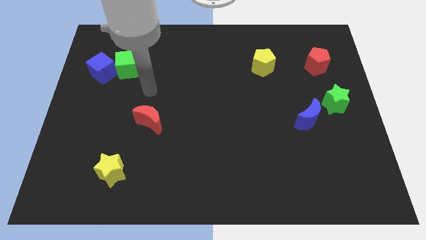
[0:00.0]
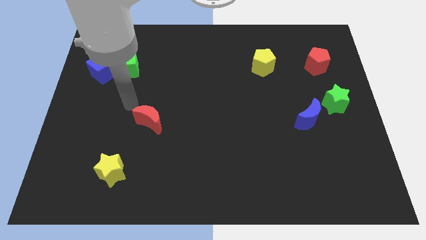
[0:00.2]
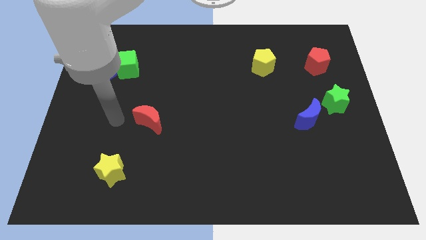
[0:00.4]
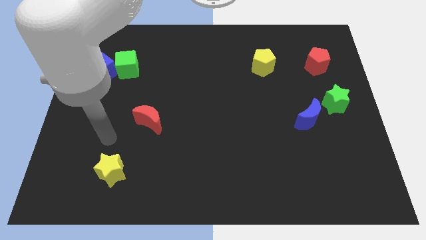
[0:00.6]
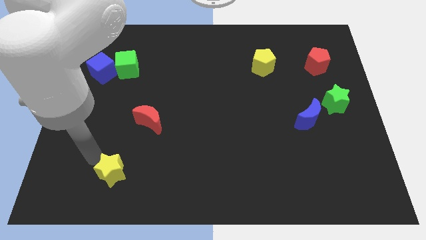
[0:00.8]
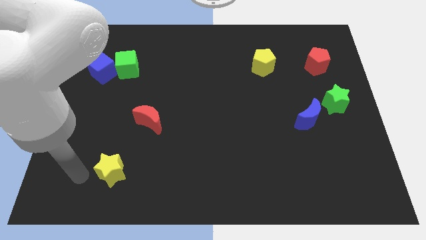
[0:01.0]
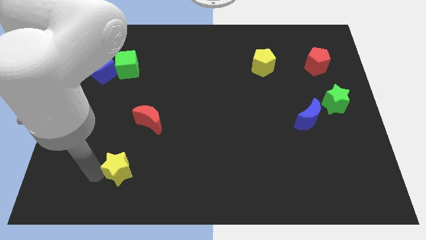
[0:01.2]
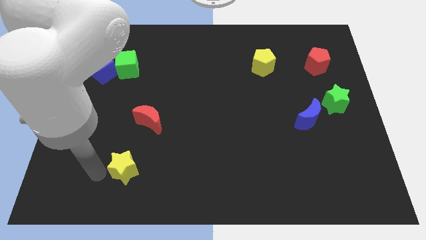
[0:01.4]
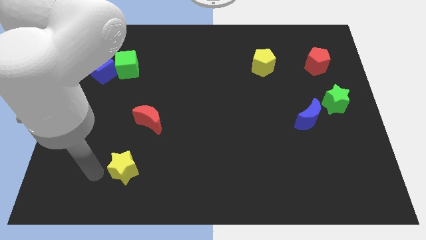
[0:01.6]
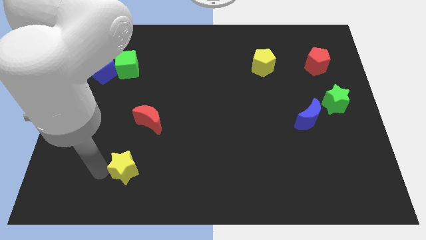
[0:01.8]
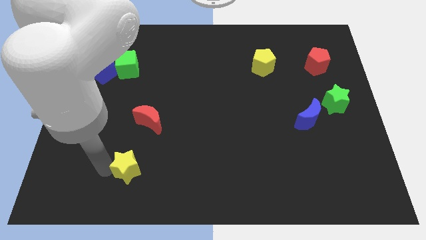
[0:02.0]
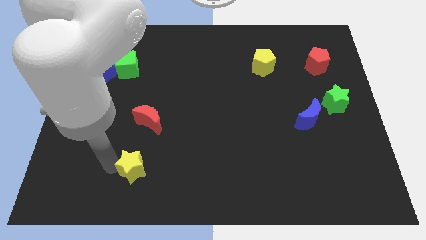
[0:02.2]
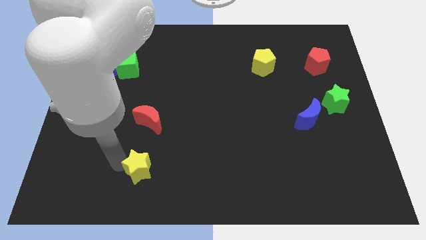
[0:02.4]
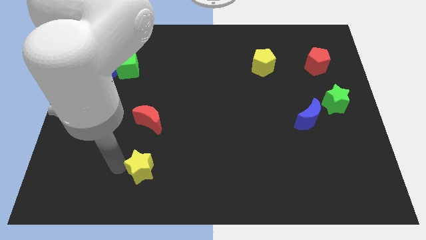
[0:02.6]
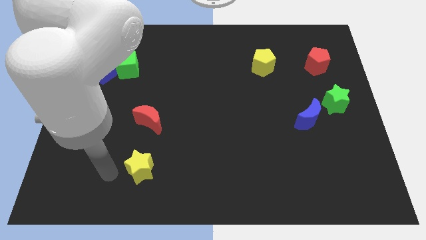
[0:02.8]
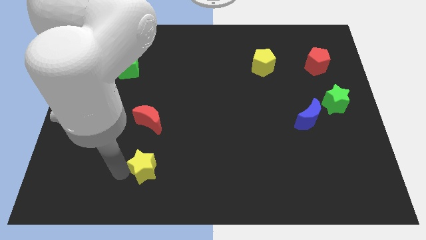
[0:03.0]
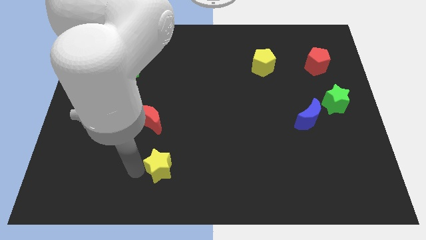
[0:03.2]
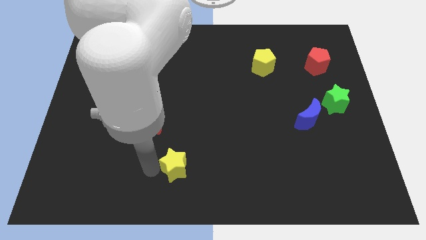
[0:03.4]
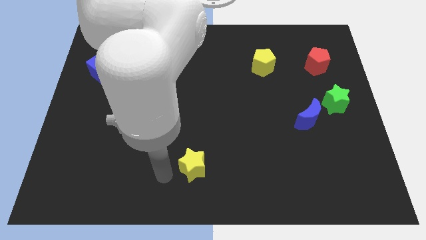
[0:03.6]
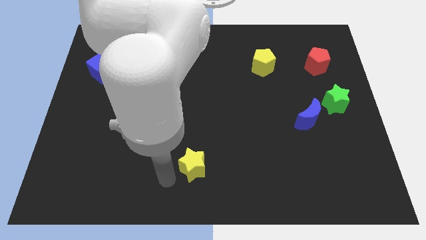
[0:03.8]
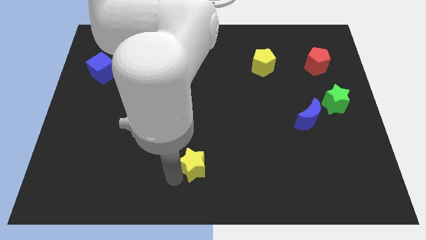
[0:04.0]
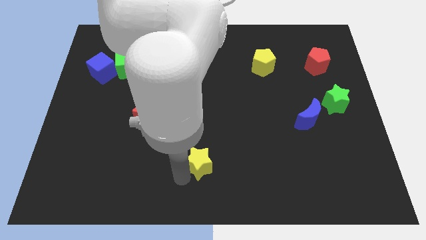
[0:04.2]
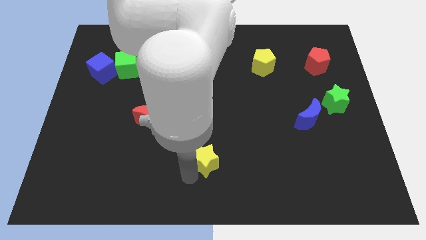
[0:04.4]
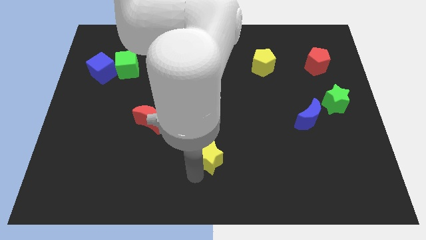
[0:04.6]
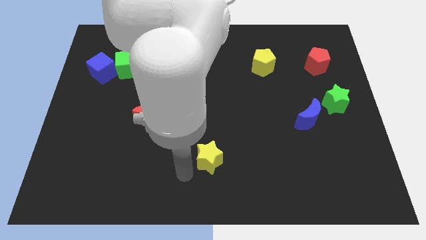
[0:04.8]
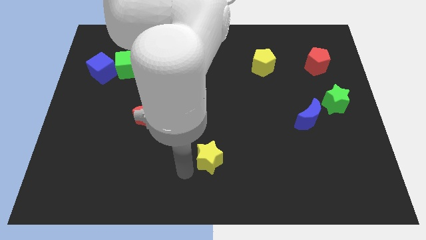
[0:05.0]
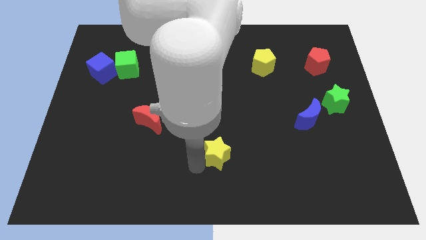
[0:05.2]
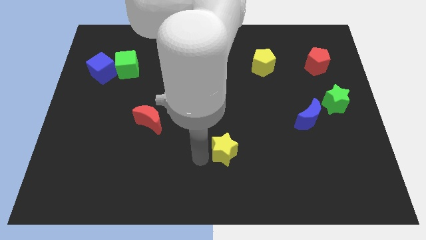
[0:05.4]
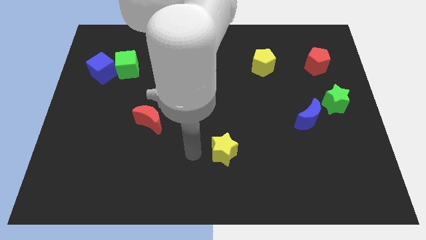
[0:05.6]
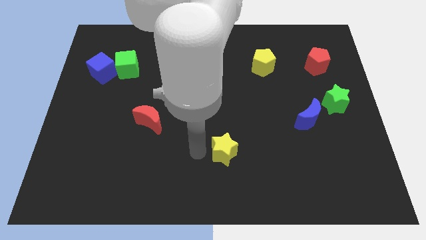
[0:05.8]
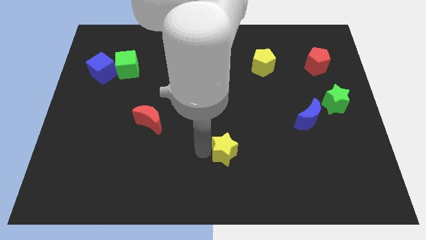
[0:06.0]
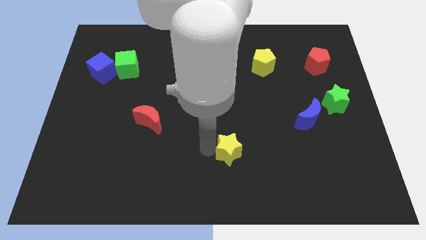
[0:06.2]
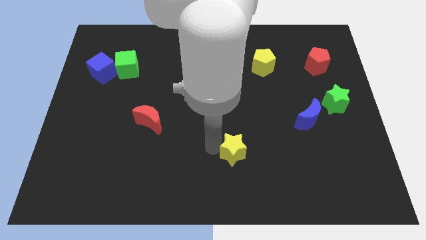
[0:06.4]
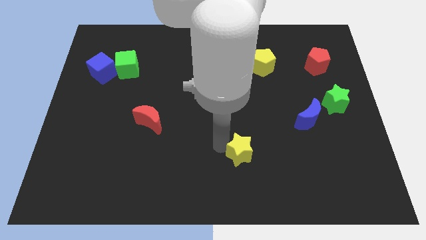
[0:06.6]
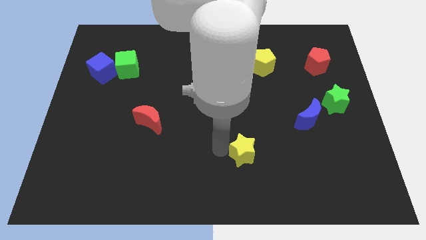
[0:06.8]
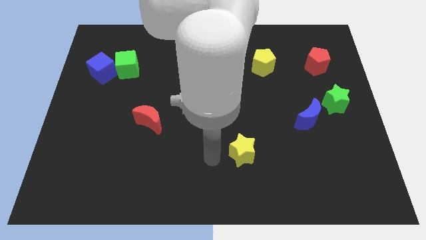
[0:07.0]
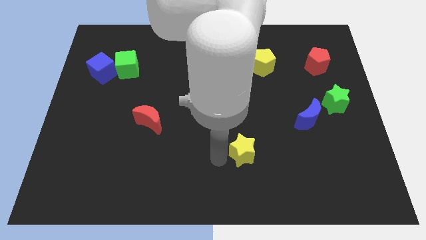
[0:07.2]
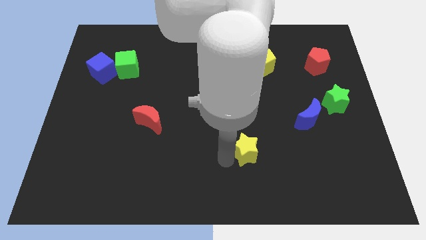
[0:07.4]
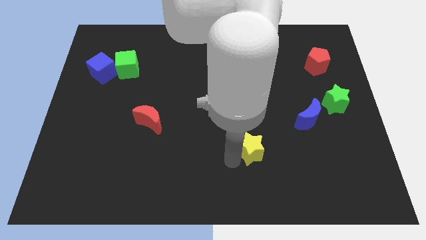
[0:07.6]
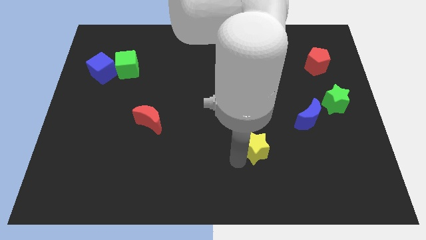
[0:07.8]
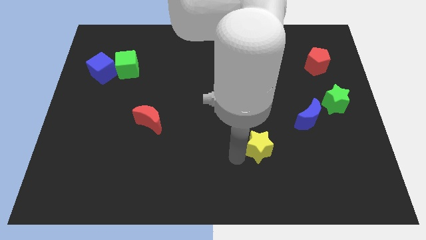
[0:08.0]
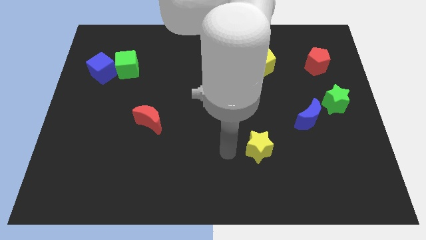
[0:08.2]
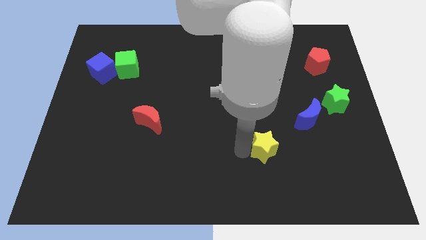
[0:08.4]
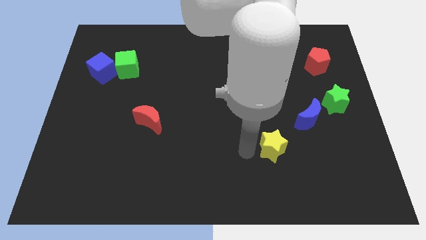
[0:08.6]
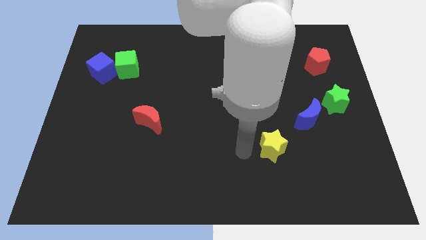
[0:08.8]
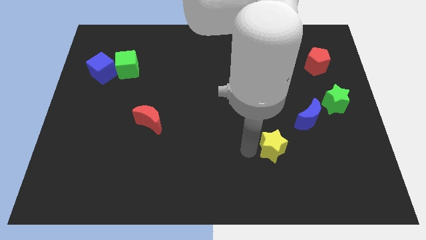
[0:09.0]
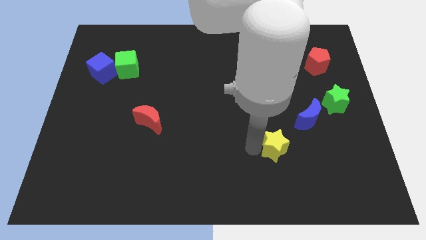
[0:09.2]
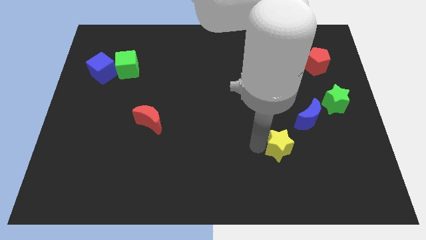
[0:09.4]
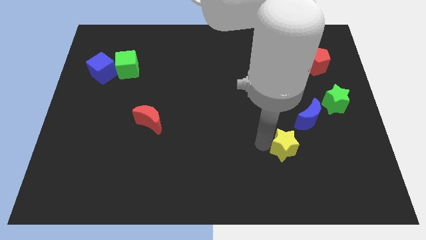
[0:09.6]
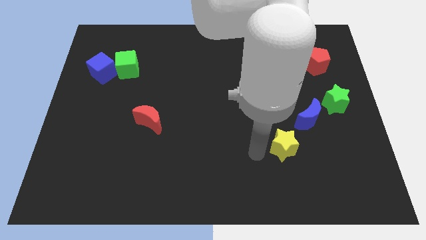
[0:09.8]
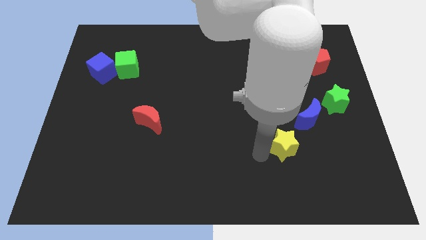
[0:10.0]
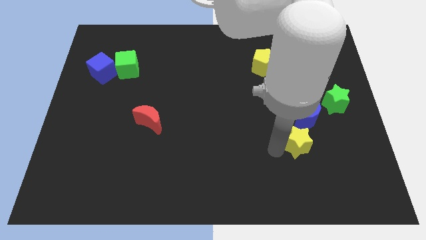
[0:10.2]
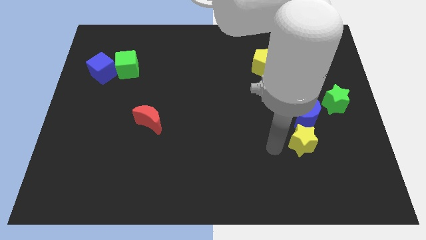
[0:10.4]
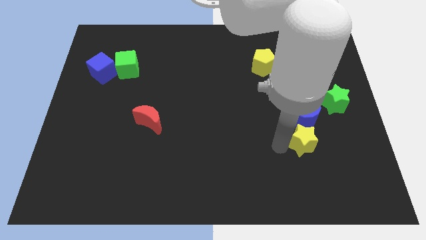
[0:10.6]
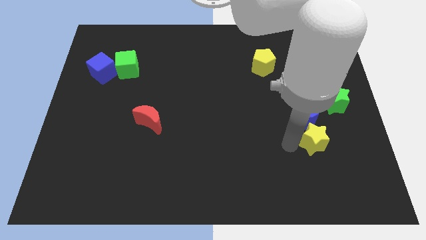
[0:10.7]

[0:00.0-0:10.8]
put the yellow star diagonally down and to the right of the blue moon

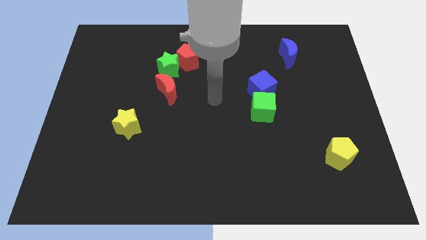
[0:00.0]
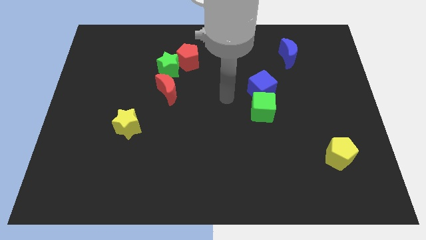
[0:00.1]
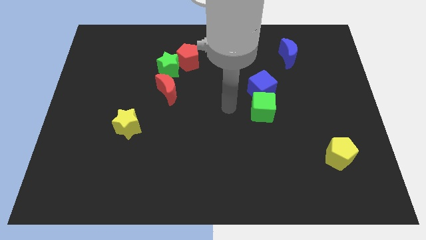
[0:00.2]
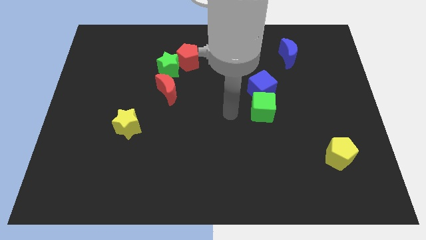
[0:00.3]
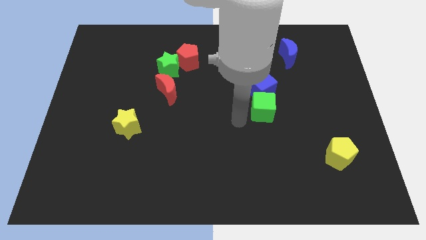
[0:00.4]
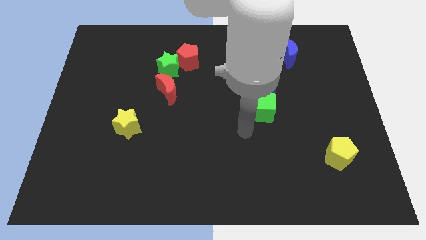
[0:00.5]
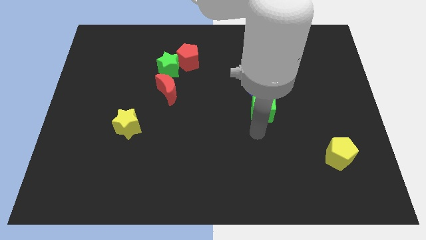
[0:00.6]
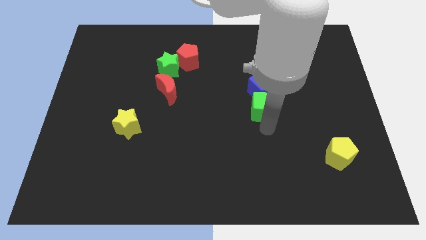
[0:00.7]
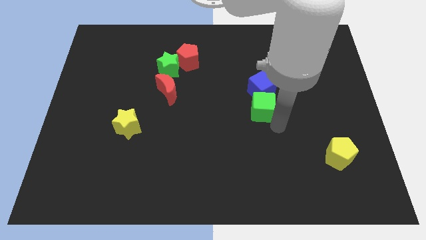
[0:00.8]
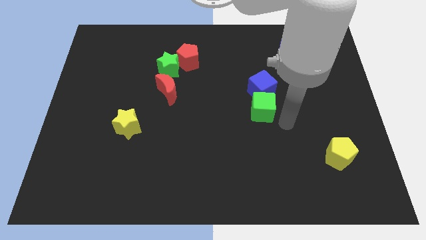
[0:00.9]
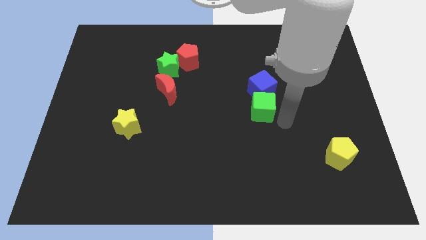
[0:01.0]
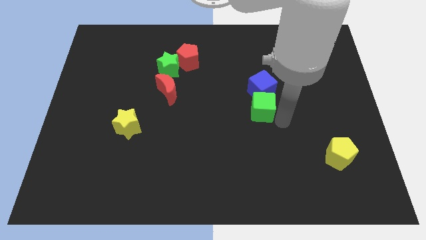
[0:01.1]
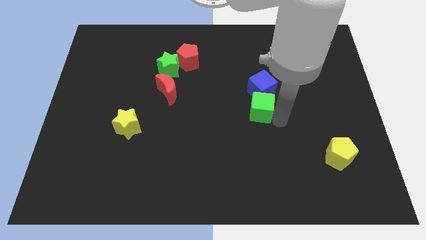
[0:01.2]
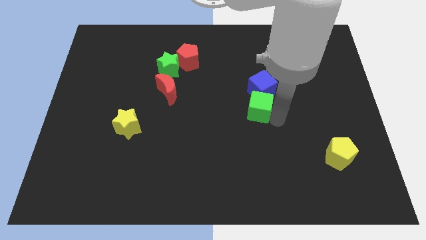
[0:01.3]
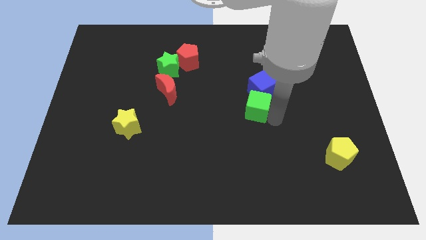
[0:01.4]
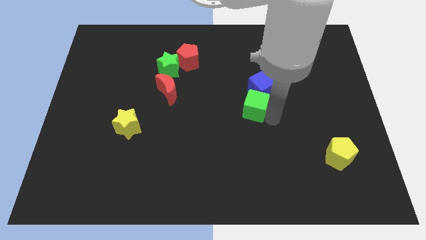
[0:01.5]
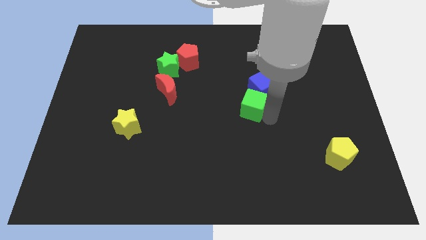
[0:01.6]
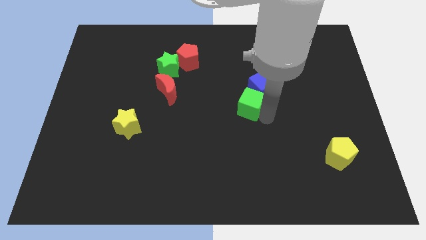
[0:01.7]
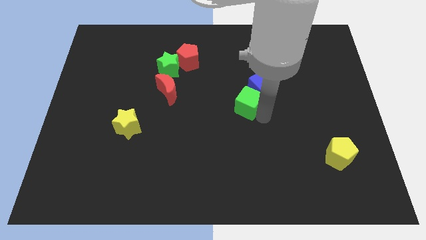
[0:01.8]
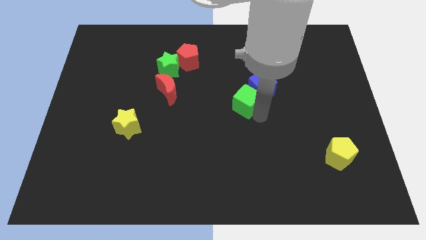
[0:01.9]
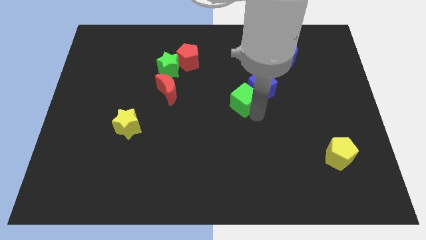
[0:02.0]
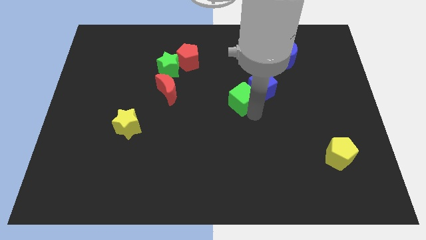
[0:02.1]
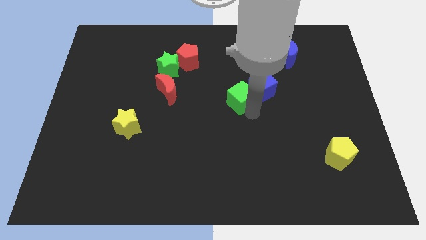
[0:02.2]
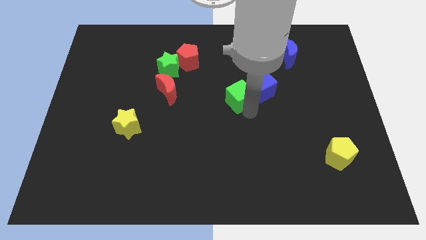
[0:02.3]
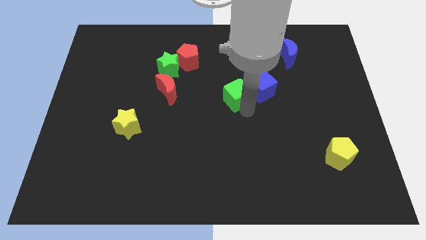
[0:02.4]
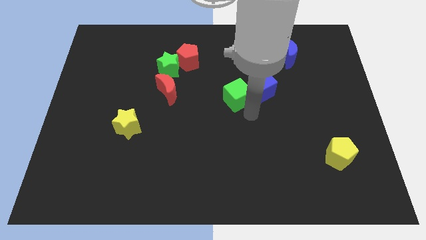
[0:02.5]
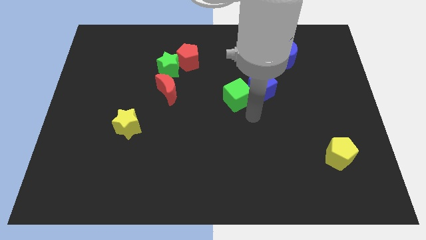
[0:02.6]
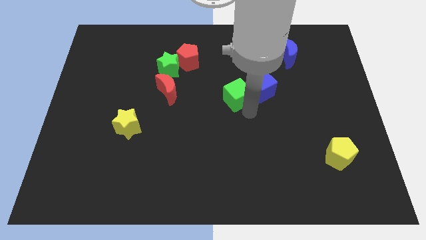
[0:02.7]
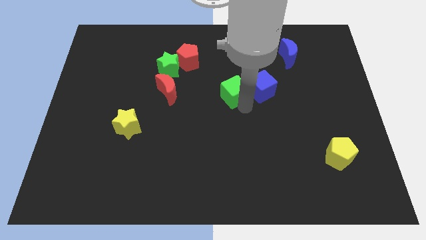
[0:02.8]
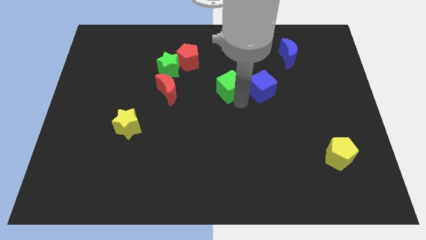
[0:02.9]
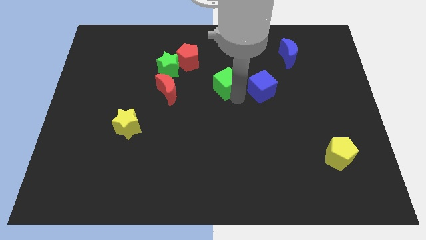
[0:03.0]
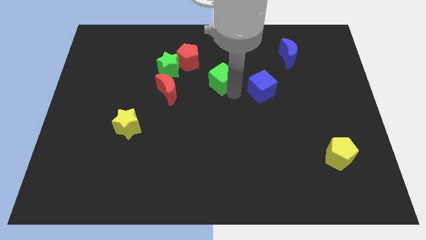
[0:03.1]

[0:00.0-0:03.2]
put the green cube to the bottom right of the red pentagon
